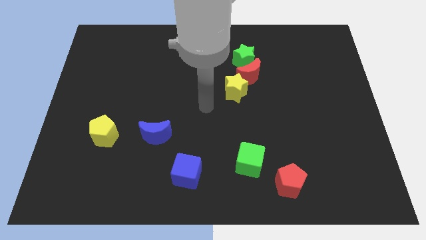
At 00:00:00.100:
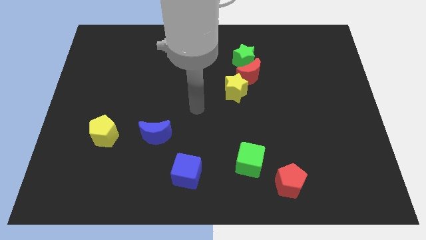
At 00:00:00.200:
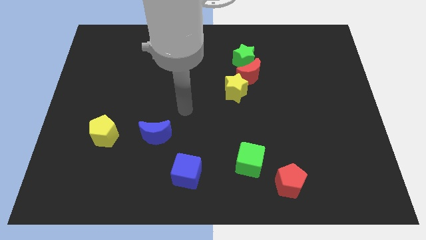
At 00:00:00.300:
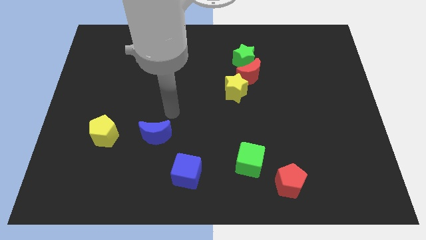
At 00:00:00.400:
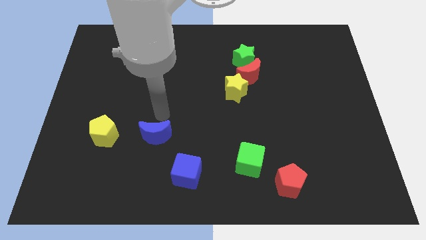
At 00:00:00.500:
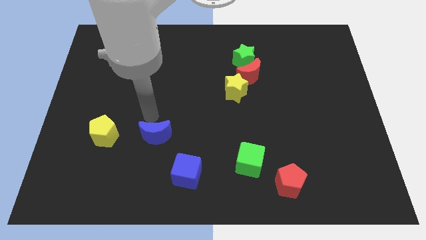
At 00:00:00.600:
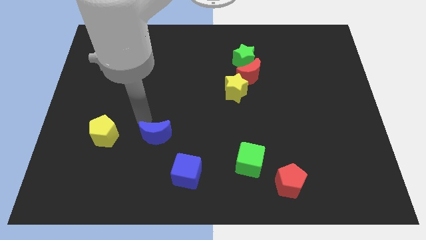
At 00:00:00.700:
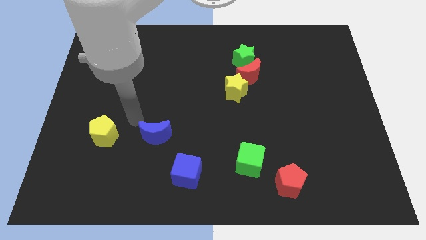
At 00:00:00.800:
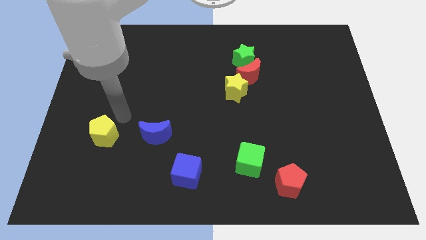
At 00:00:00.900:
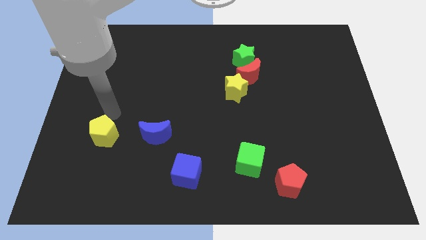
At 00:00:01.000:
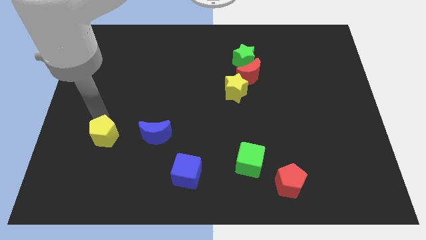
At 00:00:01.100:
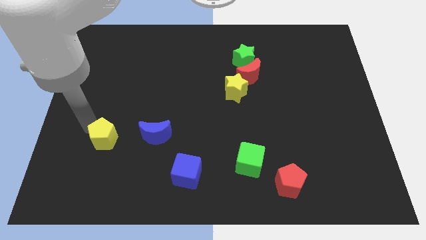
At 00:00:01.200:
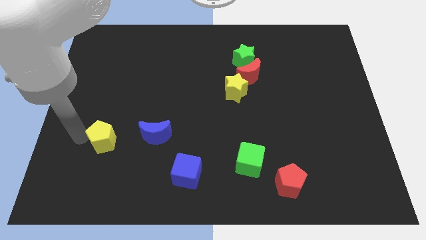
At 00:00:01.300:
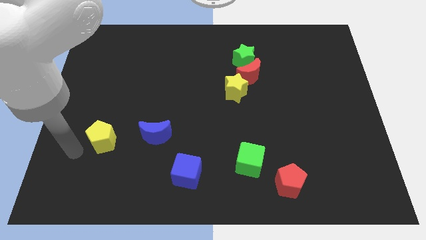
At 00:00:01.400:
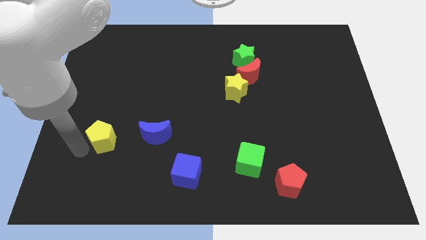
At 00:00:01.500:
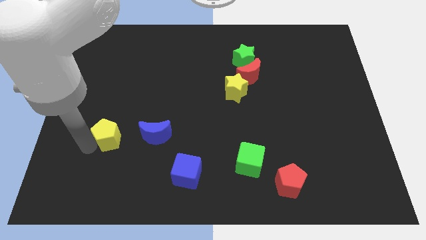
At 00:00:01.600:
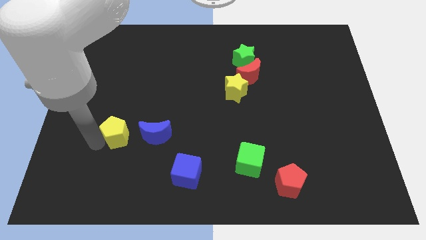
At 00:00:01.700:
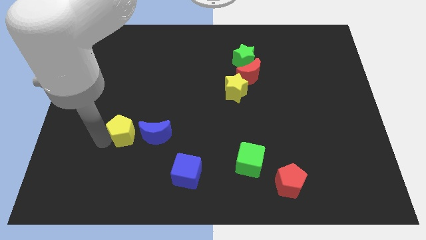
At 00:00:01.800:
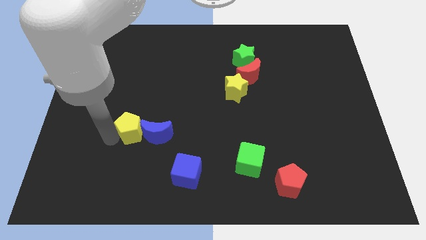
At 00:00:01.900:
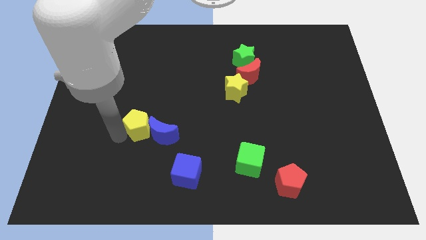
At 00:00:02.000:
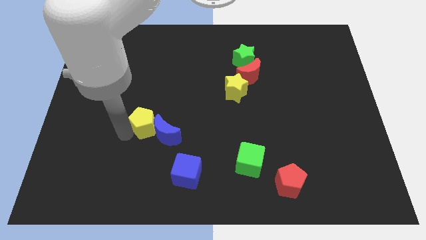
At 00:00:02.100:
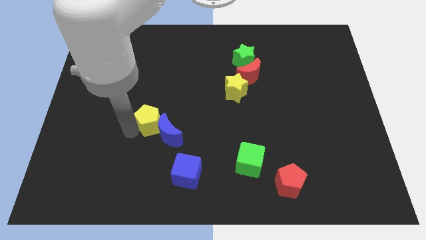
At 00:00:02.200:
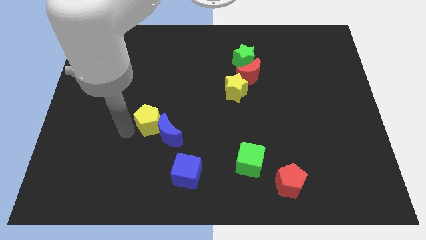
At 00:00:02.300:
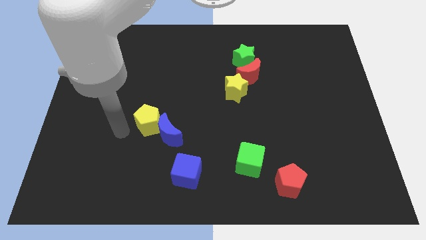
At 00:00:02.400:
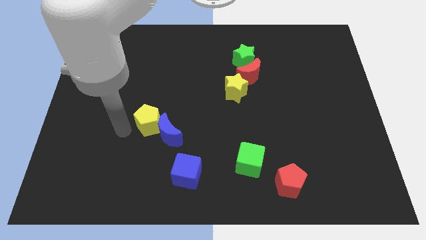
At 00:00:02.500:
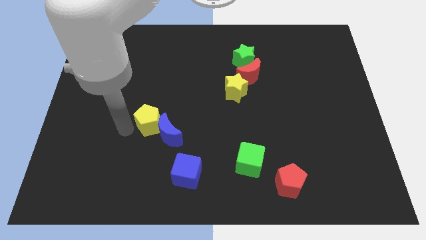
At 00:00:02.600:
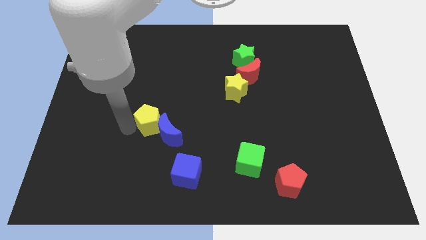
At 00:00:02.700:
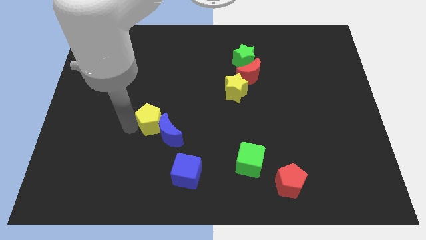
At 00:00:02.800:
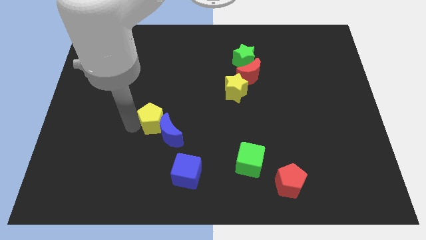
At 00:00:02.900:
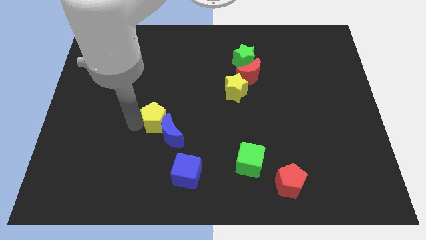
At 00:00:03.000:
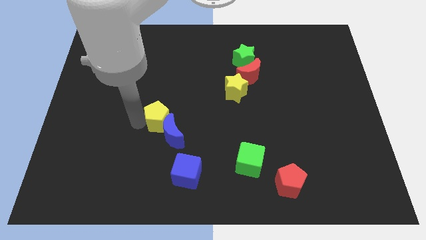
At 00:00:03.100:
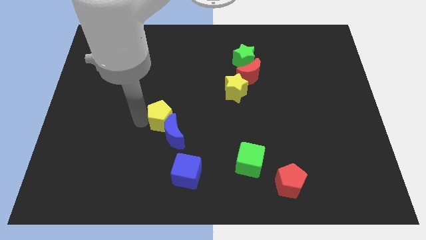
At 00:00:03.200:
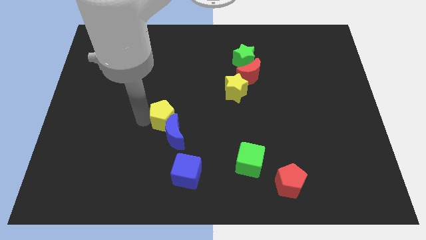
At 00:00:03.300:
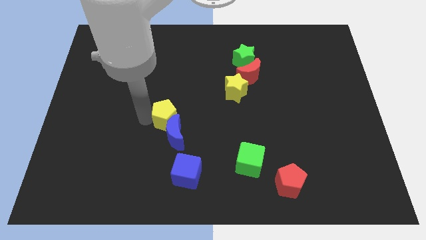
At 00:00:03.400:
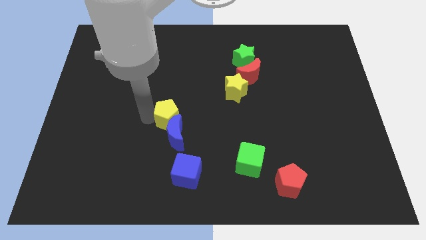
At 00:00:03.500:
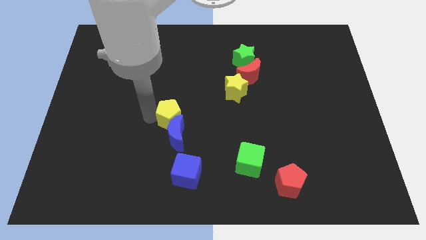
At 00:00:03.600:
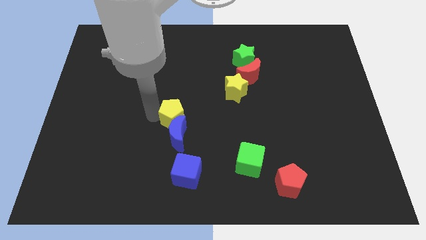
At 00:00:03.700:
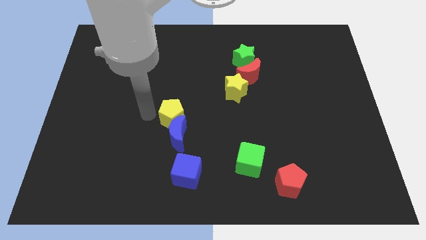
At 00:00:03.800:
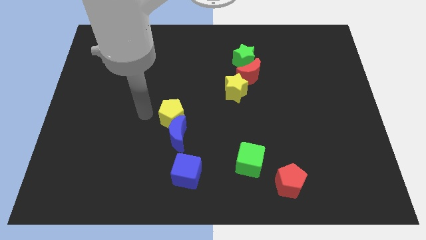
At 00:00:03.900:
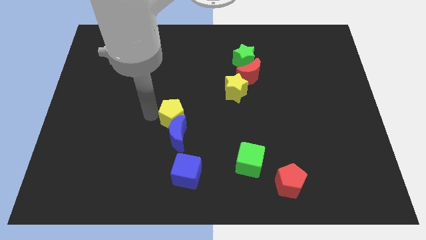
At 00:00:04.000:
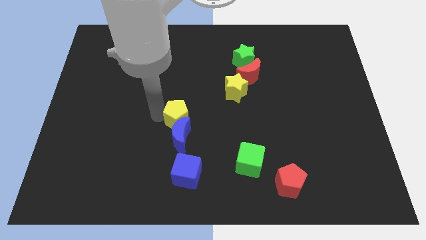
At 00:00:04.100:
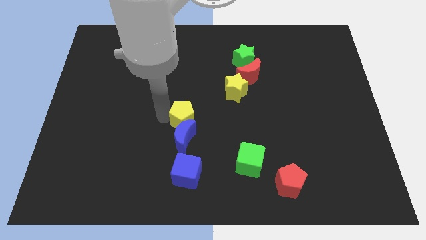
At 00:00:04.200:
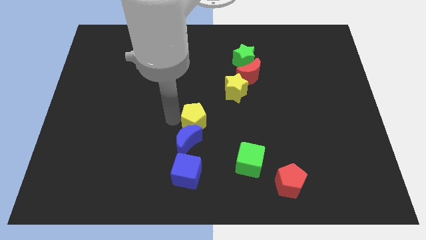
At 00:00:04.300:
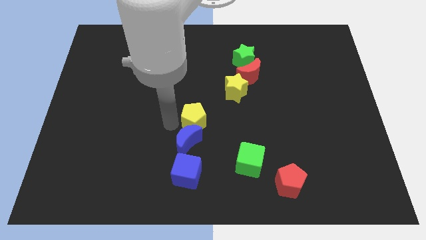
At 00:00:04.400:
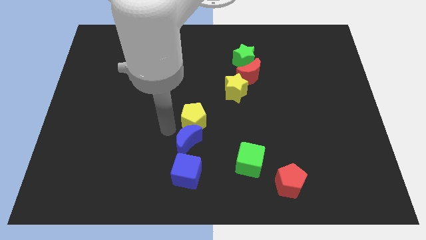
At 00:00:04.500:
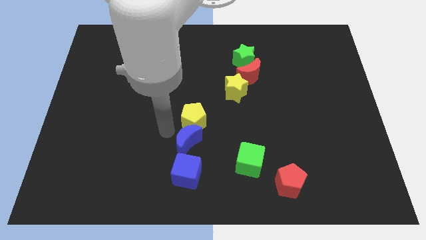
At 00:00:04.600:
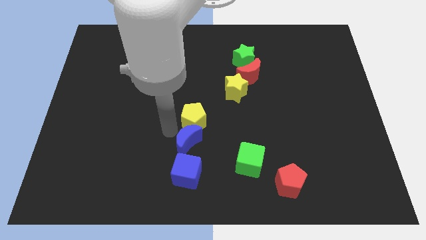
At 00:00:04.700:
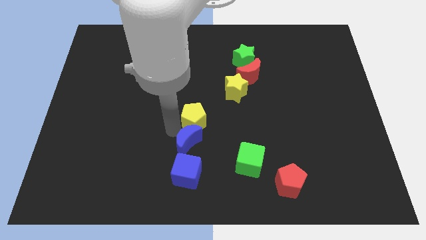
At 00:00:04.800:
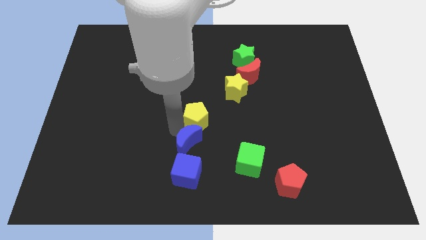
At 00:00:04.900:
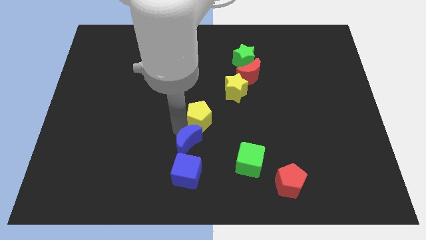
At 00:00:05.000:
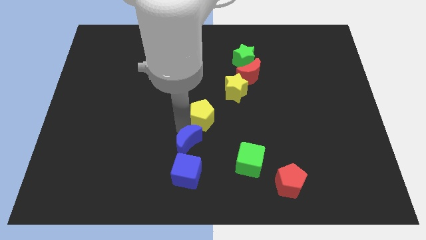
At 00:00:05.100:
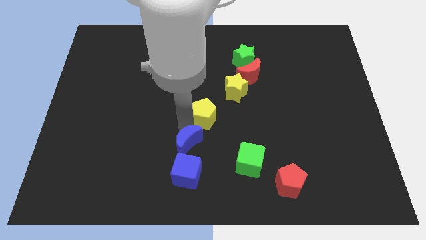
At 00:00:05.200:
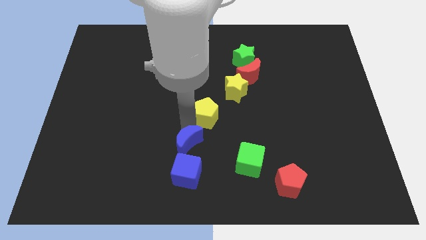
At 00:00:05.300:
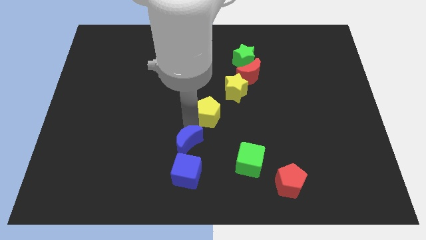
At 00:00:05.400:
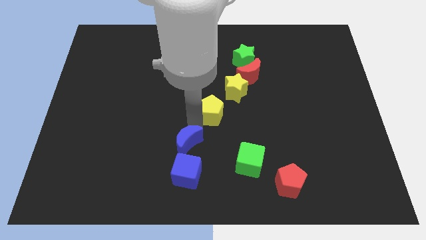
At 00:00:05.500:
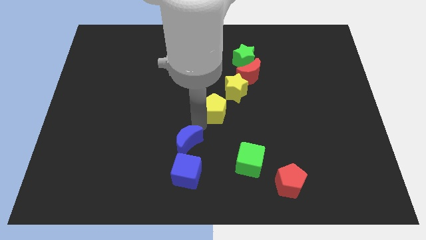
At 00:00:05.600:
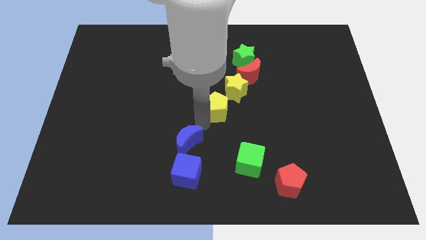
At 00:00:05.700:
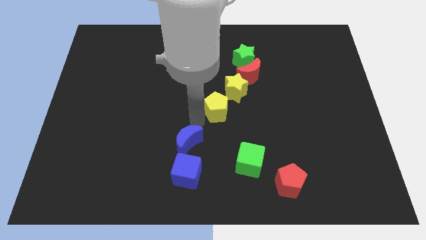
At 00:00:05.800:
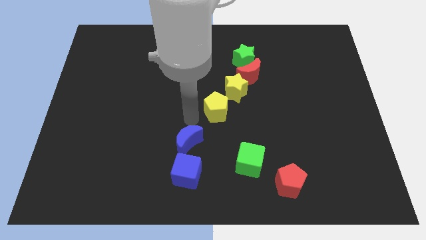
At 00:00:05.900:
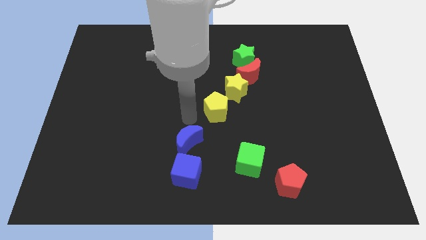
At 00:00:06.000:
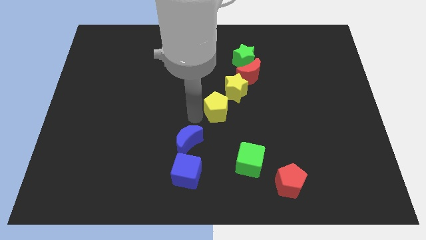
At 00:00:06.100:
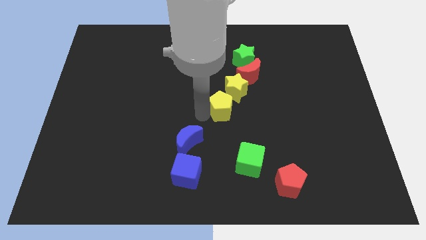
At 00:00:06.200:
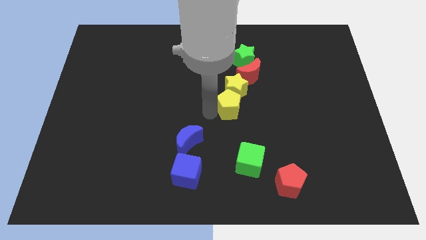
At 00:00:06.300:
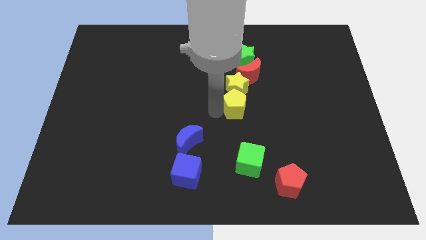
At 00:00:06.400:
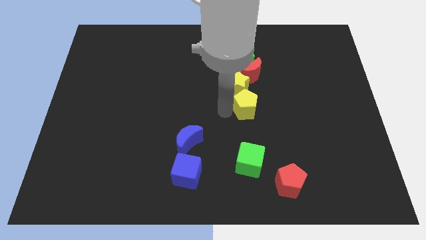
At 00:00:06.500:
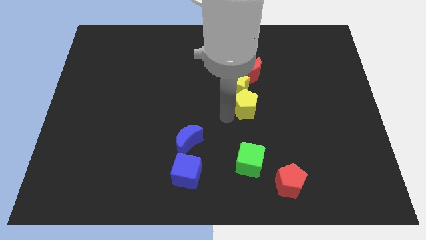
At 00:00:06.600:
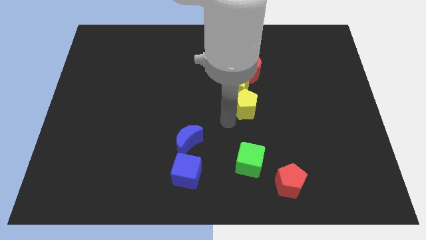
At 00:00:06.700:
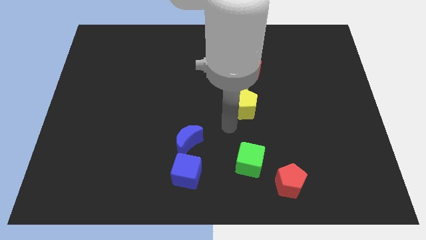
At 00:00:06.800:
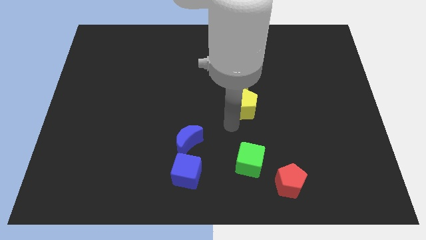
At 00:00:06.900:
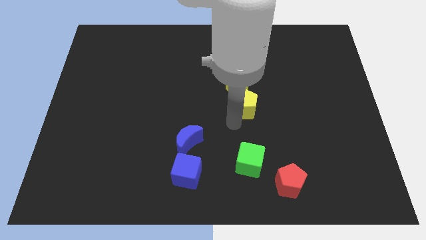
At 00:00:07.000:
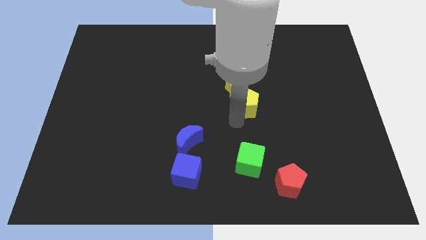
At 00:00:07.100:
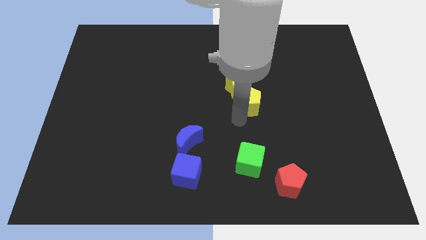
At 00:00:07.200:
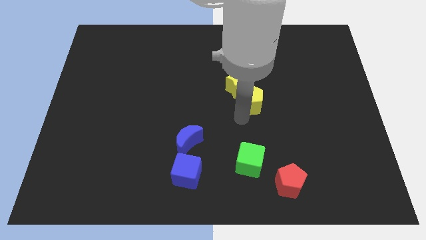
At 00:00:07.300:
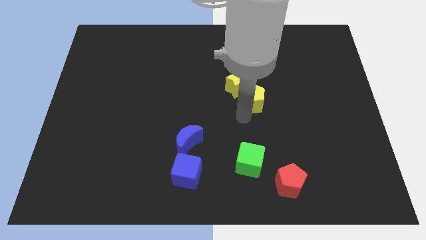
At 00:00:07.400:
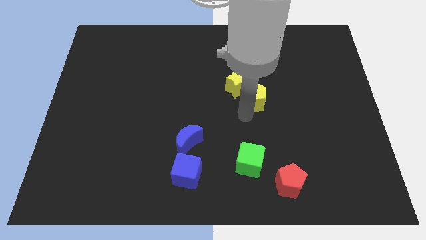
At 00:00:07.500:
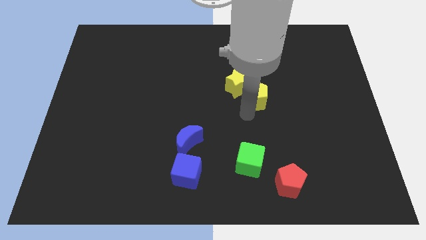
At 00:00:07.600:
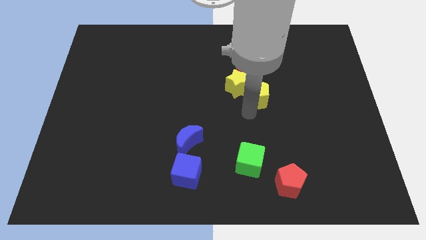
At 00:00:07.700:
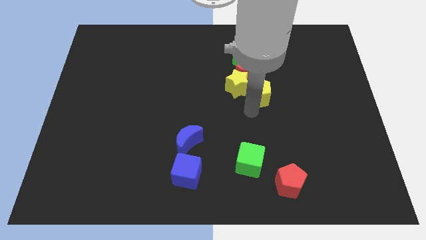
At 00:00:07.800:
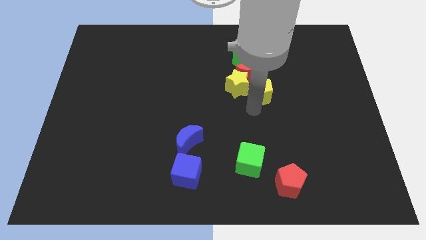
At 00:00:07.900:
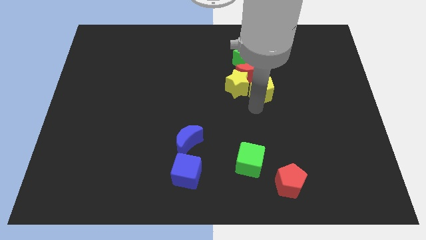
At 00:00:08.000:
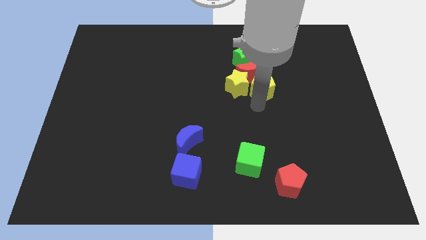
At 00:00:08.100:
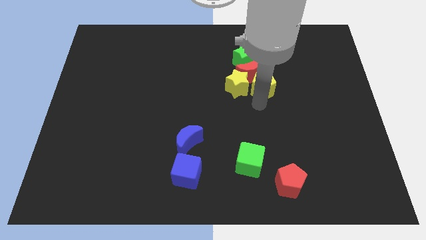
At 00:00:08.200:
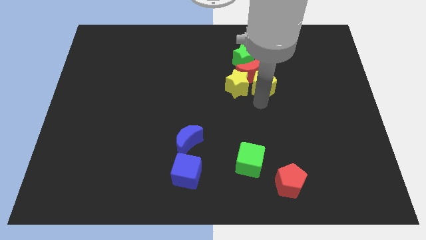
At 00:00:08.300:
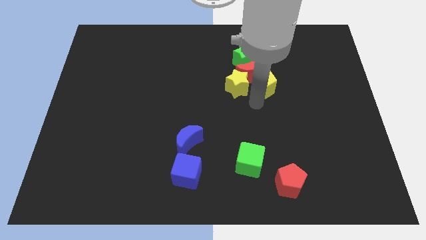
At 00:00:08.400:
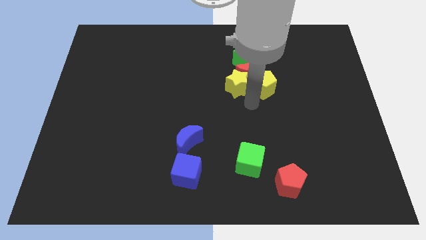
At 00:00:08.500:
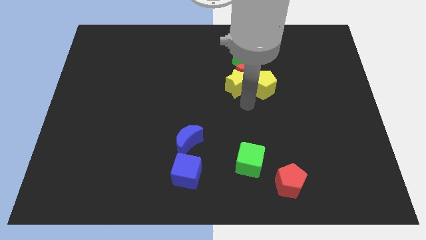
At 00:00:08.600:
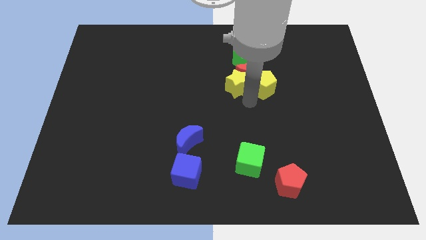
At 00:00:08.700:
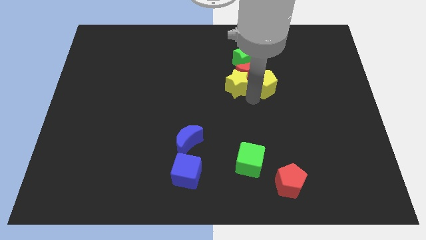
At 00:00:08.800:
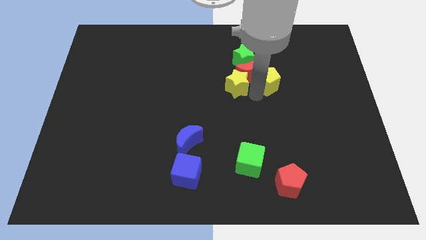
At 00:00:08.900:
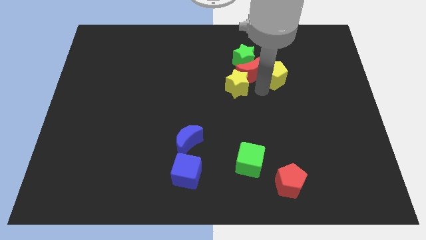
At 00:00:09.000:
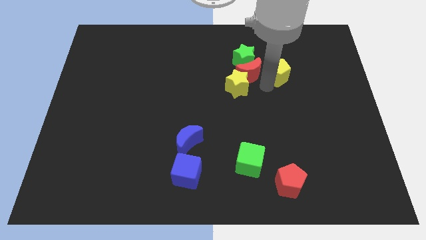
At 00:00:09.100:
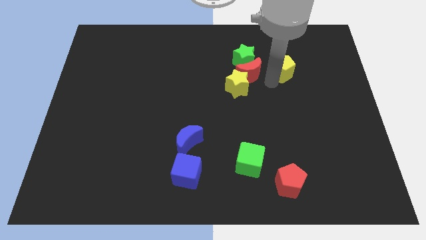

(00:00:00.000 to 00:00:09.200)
put the yellow pentagon to the right of the green star
